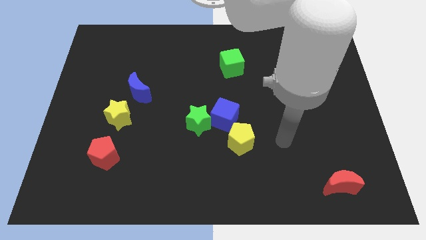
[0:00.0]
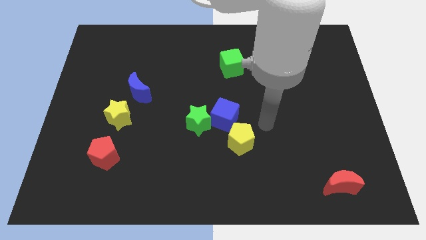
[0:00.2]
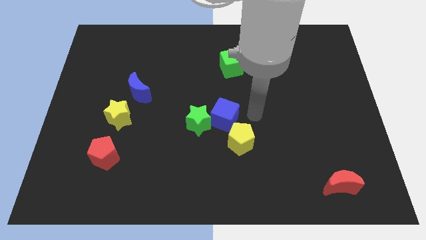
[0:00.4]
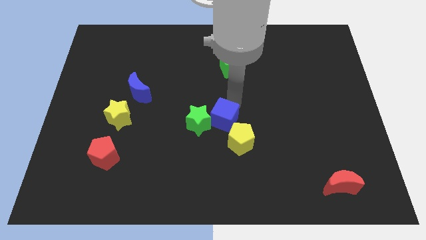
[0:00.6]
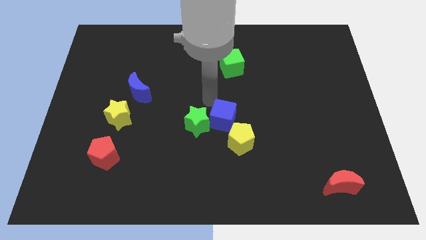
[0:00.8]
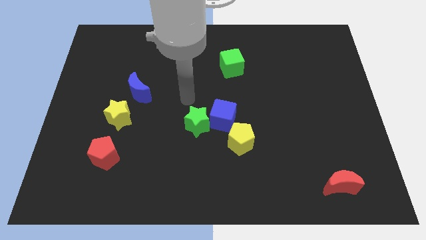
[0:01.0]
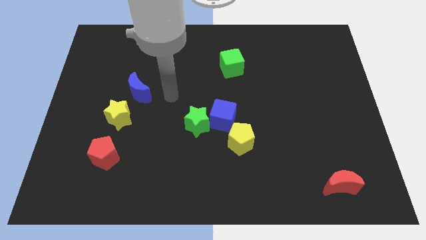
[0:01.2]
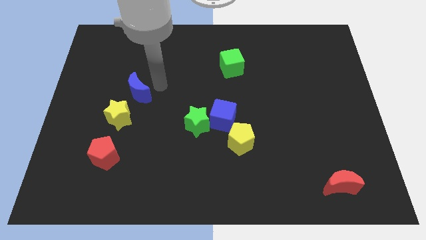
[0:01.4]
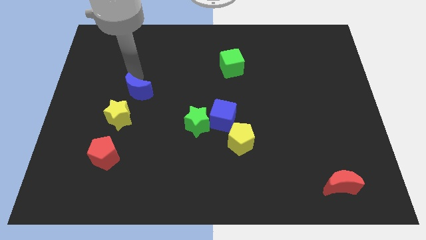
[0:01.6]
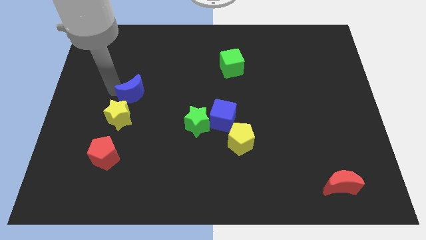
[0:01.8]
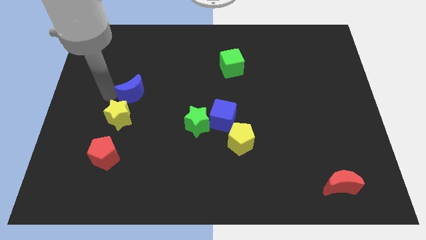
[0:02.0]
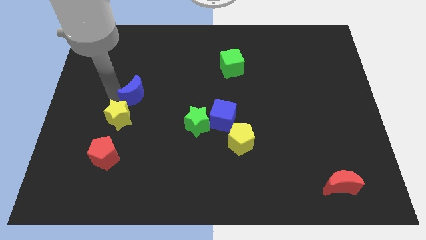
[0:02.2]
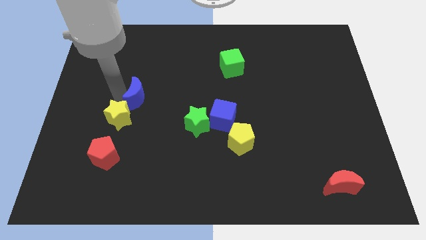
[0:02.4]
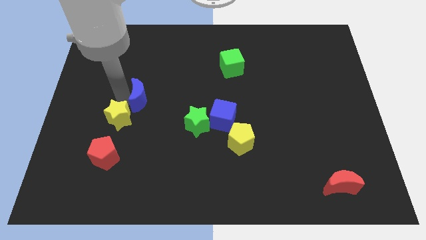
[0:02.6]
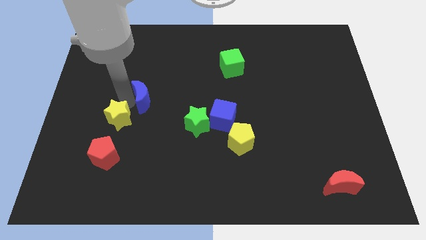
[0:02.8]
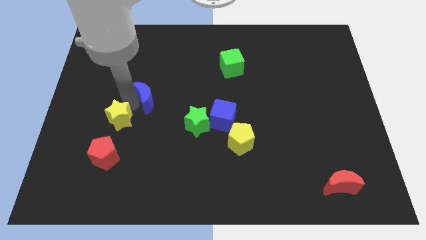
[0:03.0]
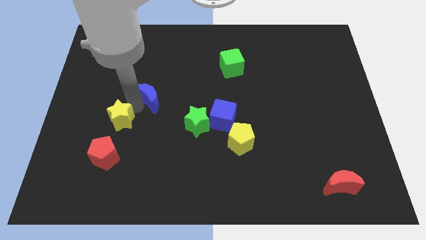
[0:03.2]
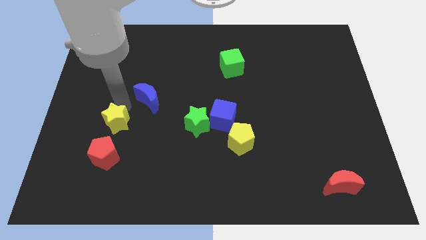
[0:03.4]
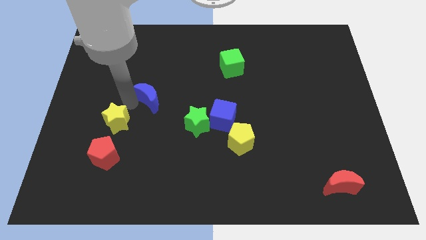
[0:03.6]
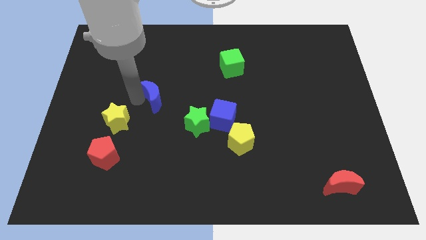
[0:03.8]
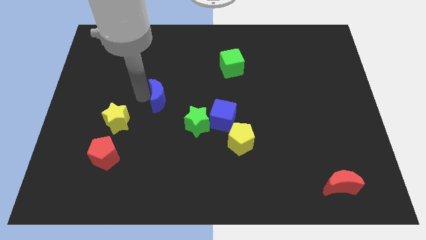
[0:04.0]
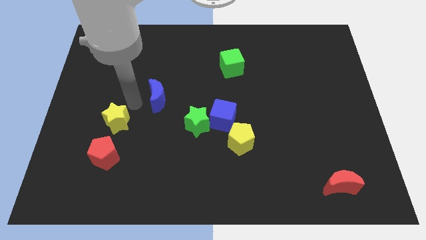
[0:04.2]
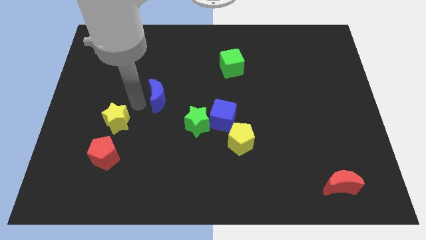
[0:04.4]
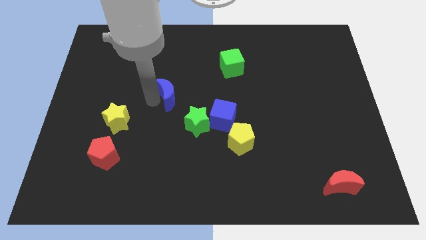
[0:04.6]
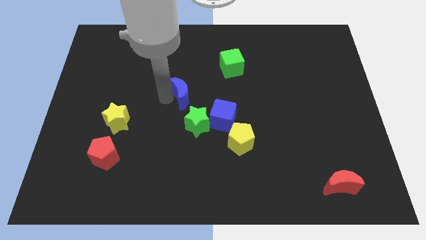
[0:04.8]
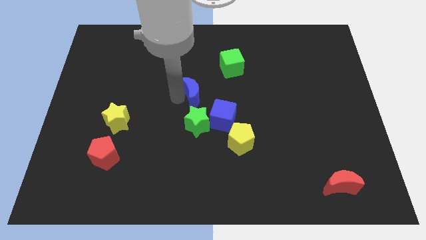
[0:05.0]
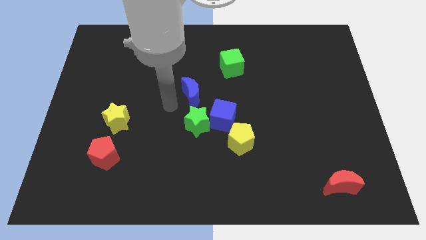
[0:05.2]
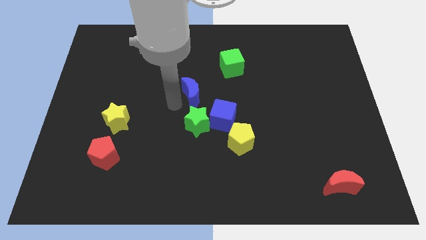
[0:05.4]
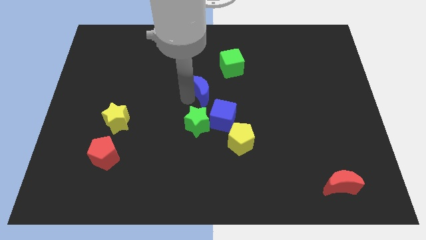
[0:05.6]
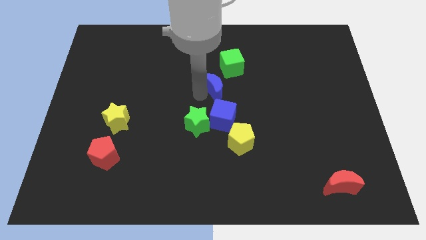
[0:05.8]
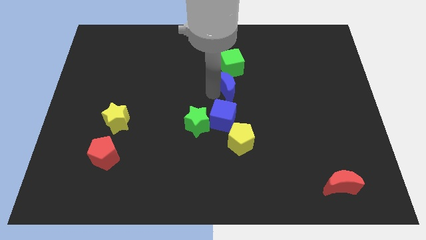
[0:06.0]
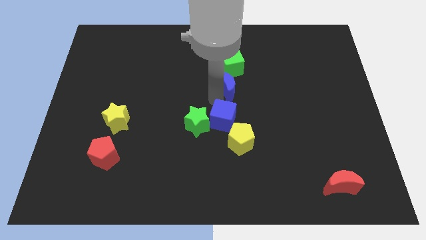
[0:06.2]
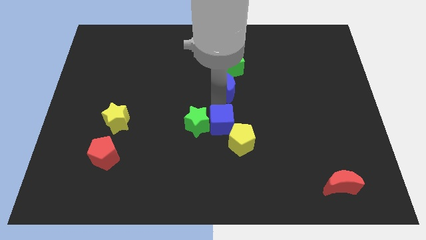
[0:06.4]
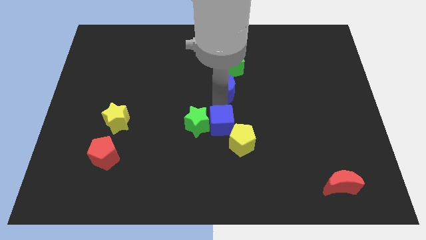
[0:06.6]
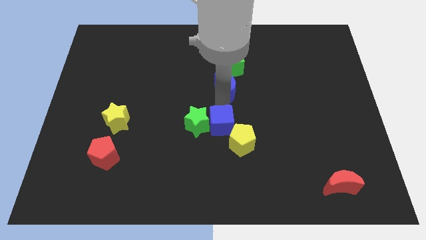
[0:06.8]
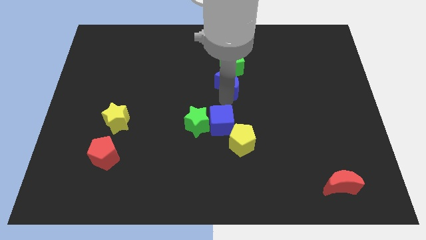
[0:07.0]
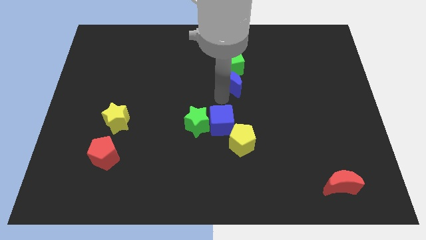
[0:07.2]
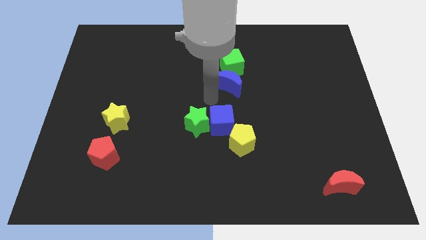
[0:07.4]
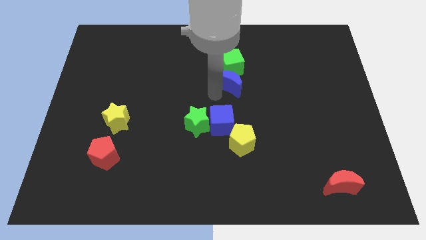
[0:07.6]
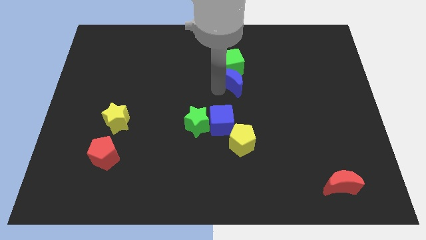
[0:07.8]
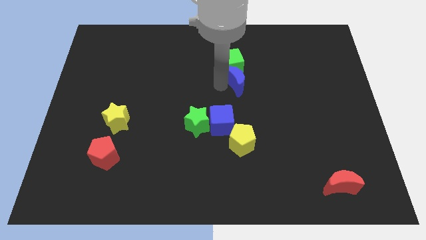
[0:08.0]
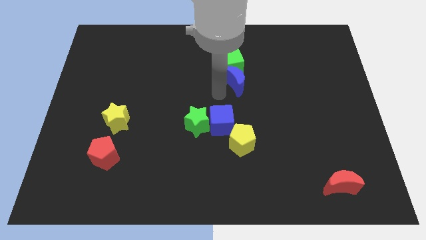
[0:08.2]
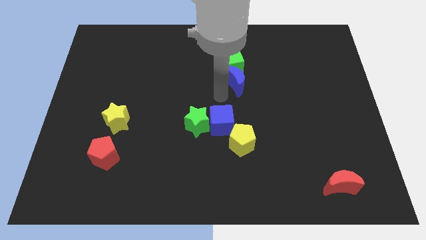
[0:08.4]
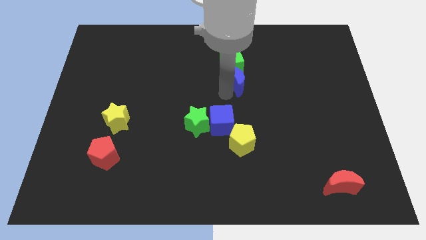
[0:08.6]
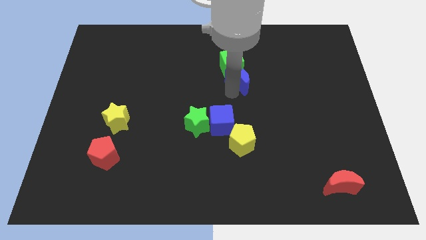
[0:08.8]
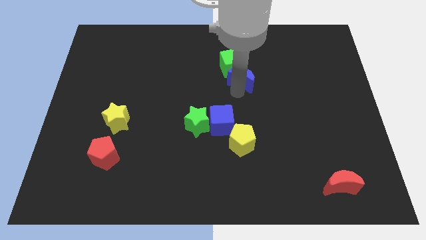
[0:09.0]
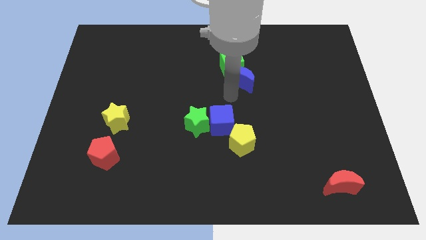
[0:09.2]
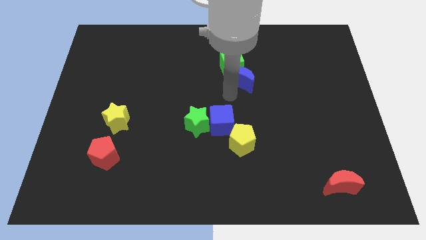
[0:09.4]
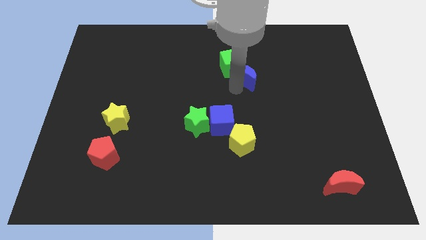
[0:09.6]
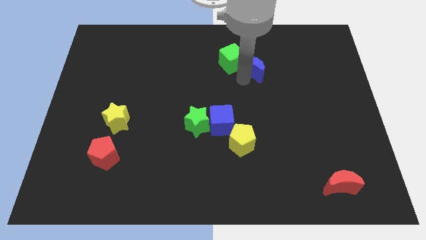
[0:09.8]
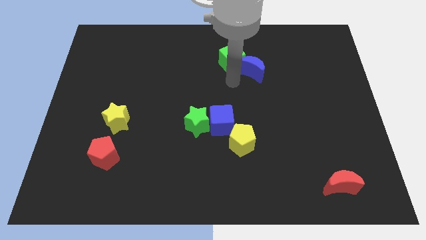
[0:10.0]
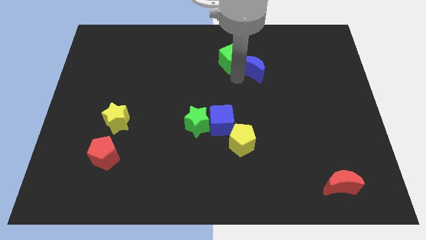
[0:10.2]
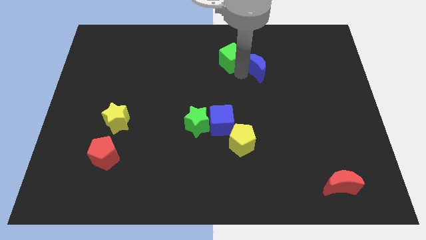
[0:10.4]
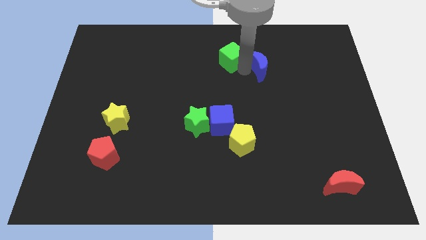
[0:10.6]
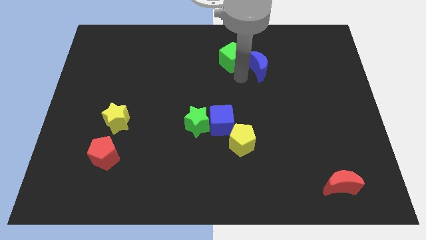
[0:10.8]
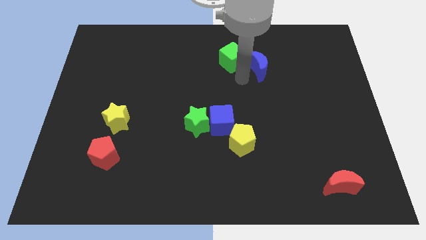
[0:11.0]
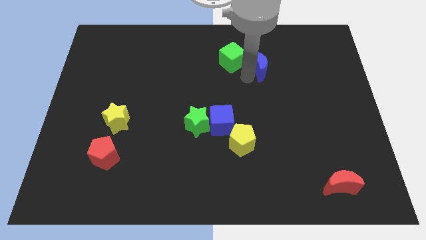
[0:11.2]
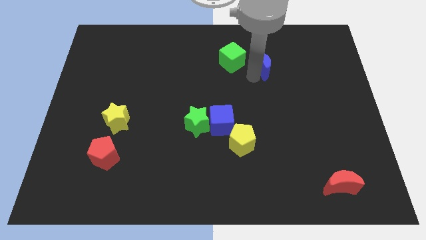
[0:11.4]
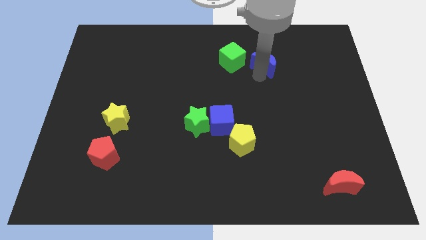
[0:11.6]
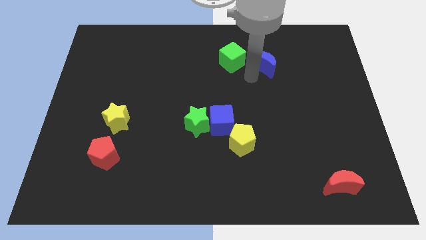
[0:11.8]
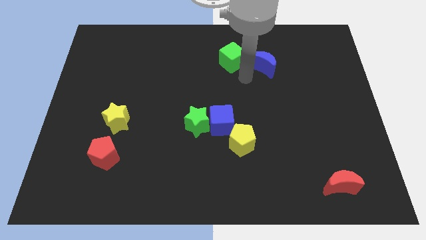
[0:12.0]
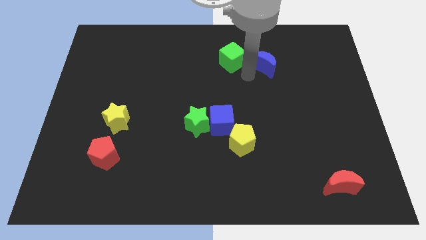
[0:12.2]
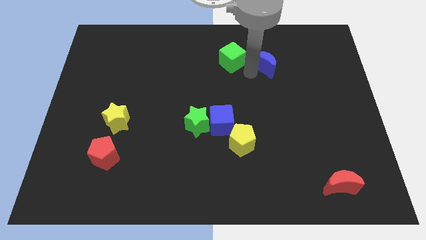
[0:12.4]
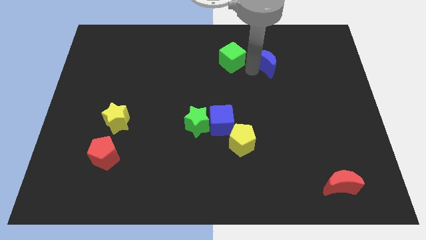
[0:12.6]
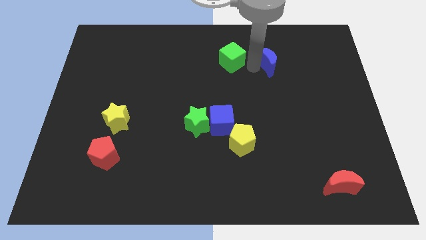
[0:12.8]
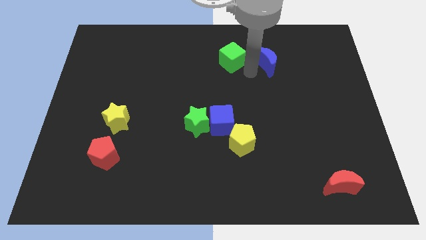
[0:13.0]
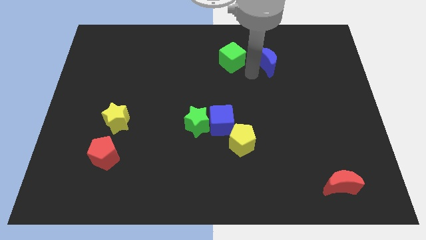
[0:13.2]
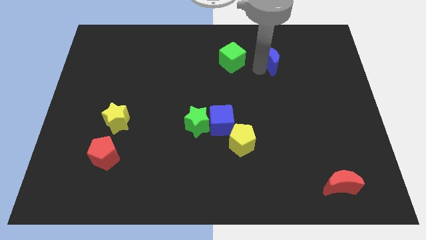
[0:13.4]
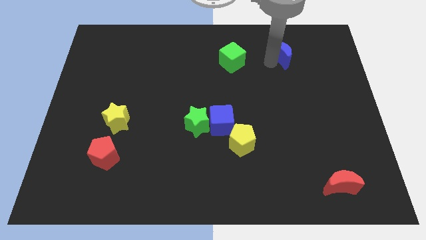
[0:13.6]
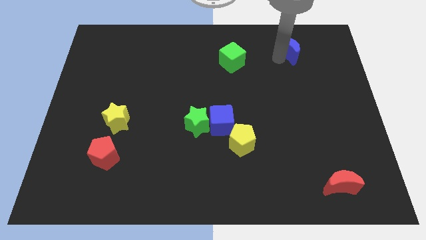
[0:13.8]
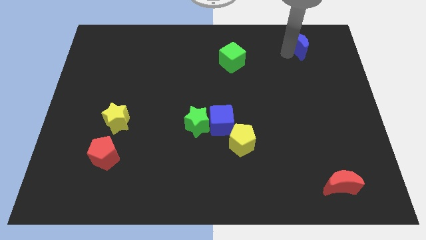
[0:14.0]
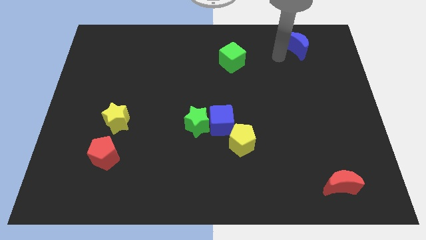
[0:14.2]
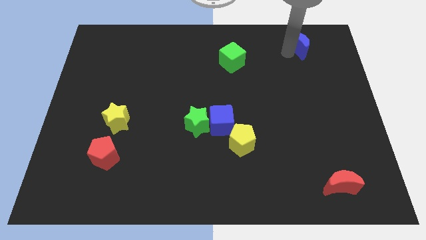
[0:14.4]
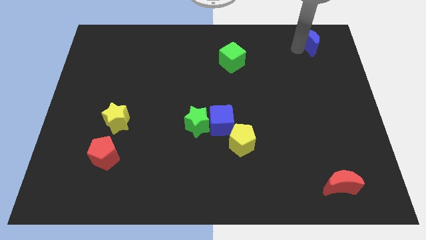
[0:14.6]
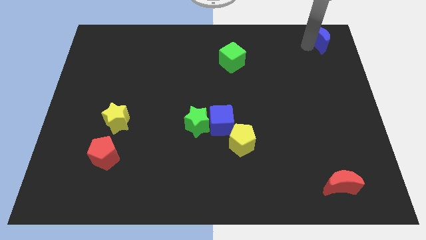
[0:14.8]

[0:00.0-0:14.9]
put the blue moon to the top right of the board
